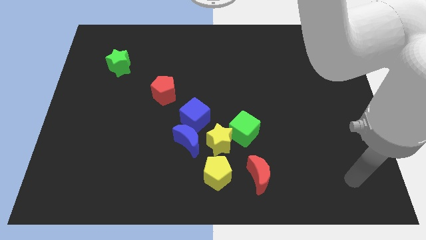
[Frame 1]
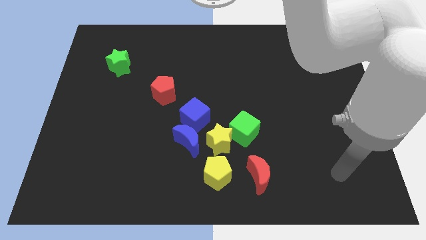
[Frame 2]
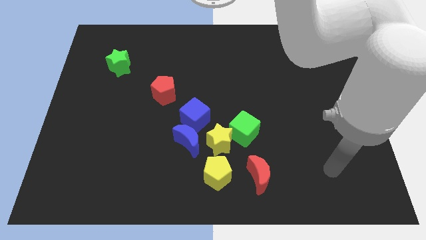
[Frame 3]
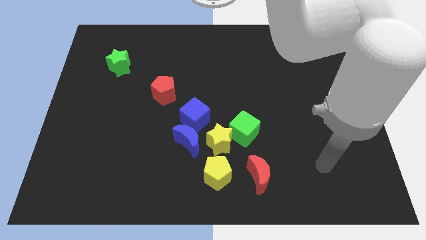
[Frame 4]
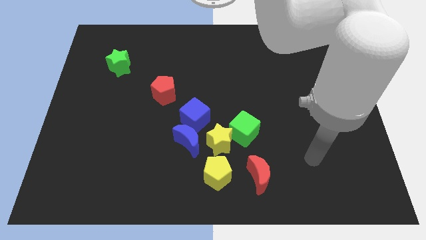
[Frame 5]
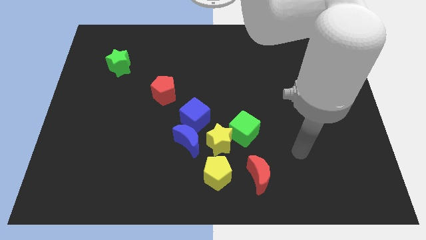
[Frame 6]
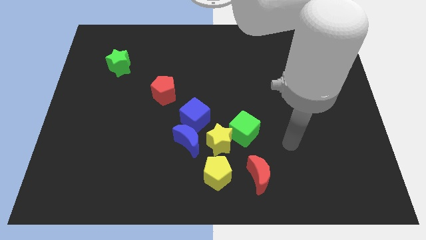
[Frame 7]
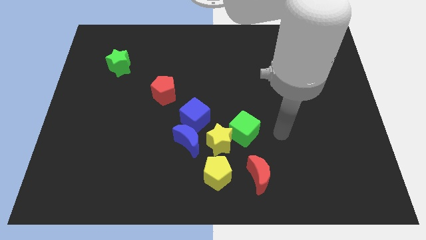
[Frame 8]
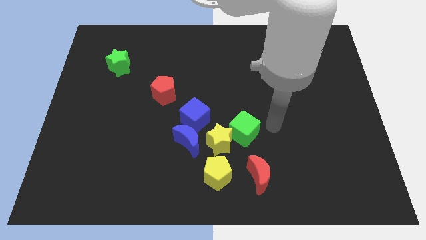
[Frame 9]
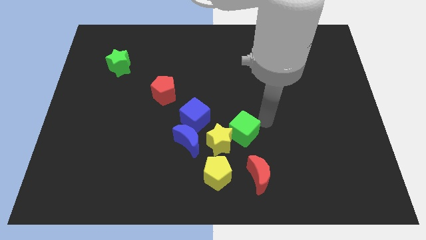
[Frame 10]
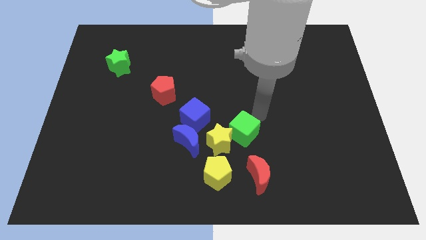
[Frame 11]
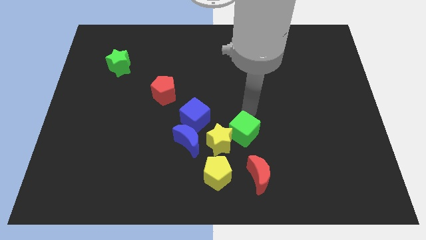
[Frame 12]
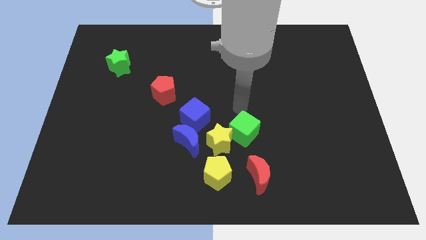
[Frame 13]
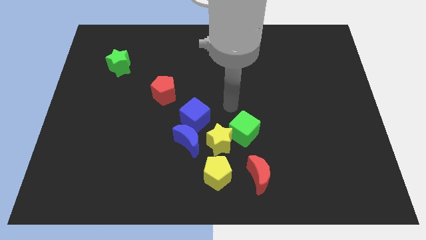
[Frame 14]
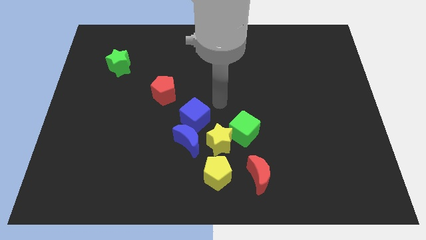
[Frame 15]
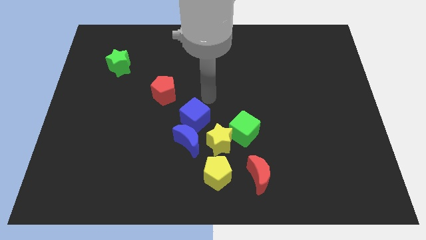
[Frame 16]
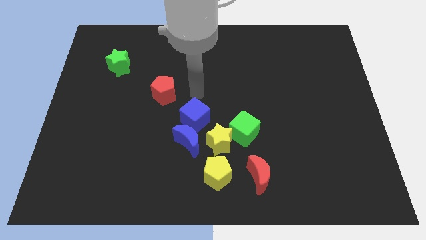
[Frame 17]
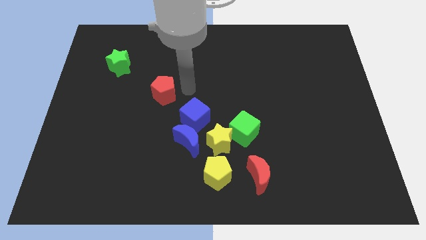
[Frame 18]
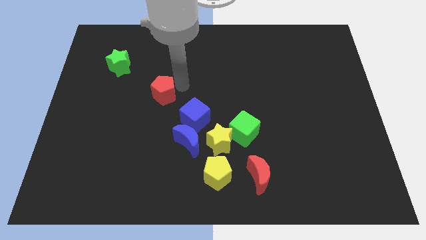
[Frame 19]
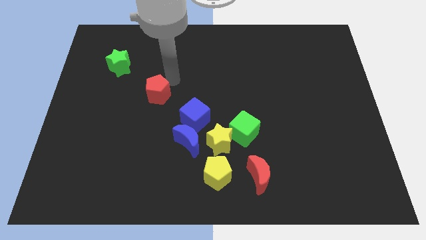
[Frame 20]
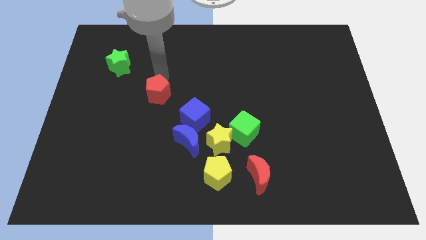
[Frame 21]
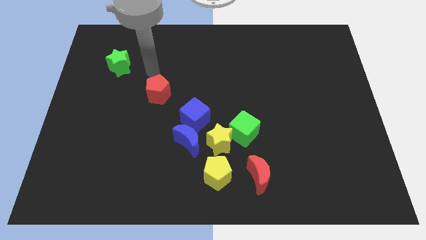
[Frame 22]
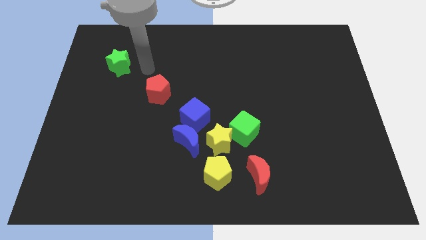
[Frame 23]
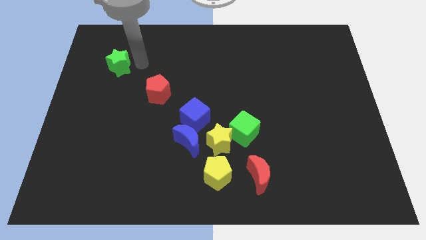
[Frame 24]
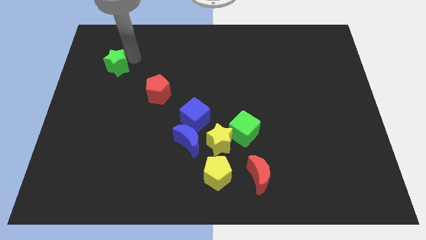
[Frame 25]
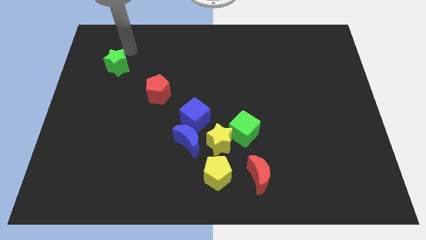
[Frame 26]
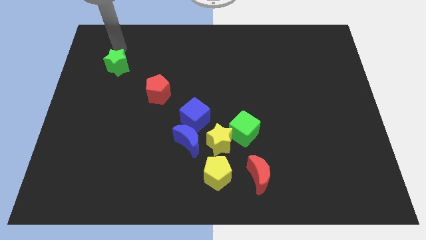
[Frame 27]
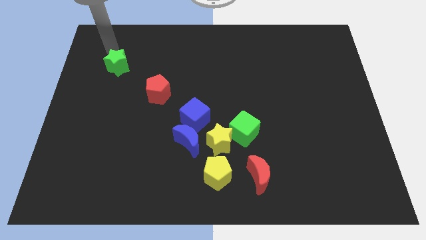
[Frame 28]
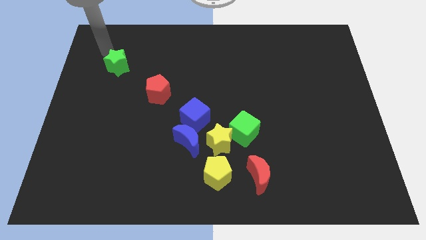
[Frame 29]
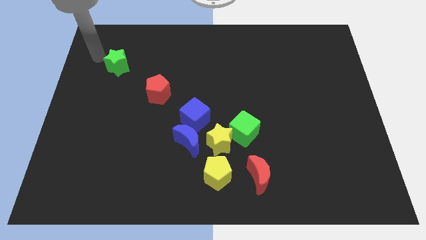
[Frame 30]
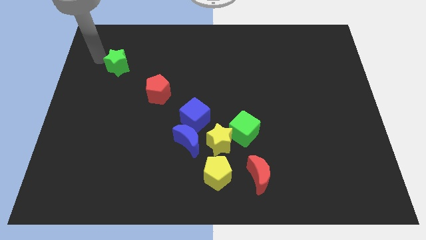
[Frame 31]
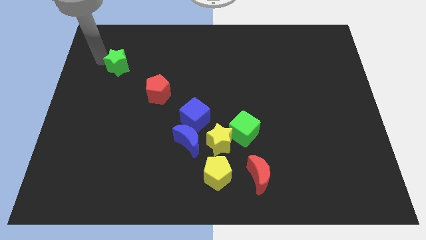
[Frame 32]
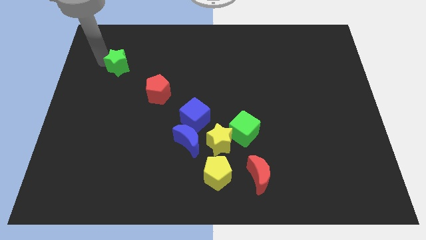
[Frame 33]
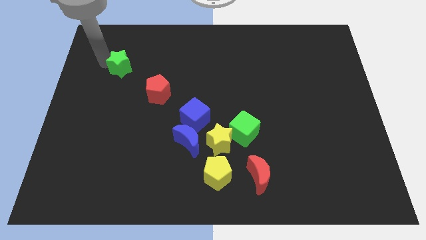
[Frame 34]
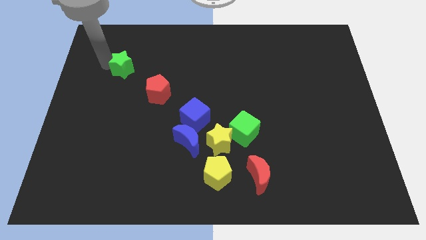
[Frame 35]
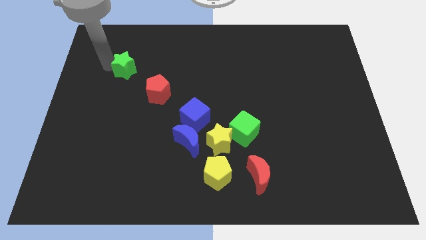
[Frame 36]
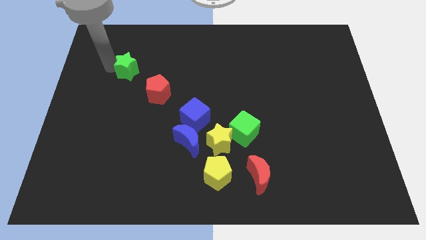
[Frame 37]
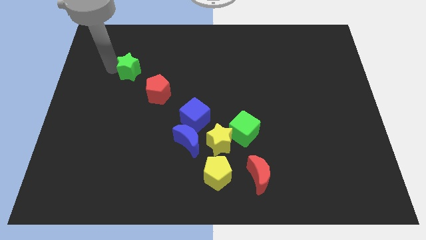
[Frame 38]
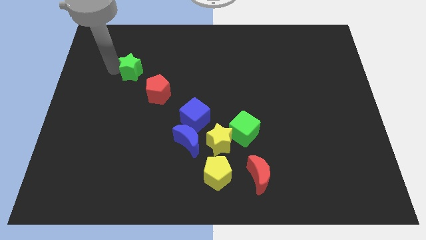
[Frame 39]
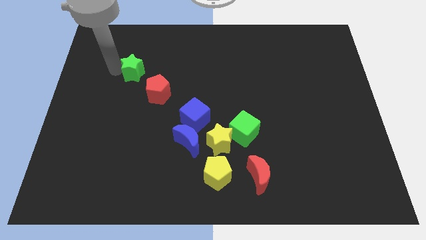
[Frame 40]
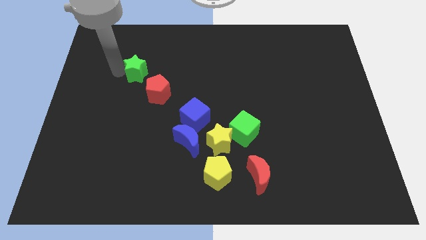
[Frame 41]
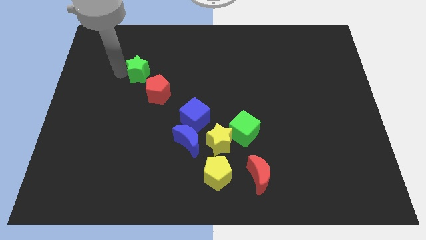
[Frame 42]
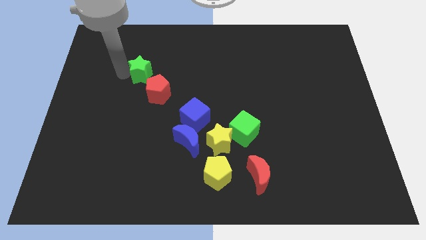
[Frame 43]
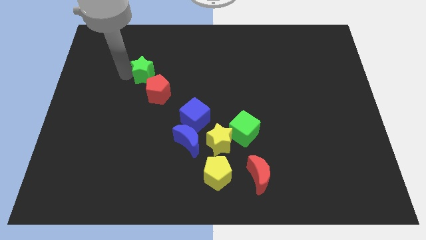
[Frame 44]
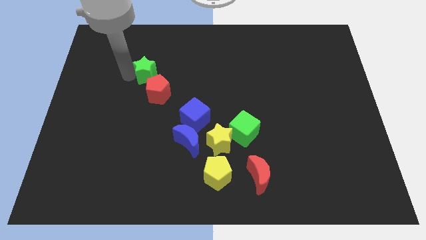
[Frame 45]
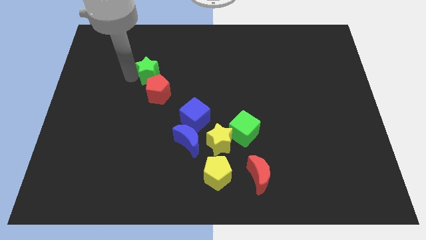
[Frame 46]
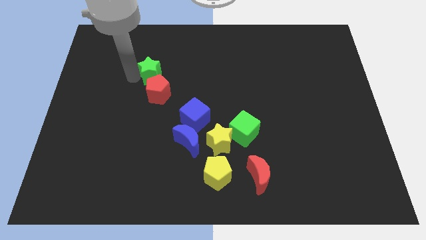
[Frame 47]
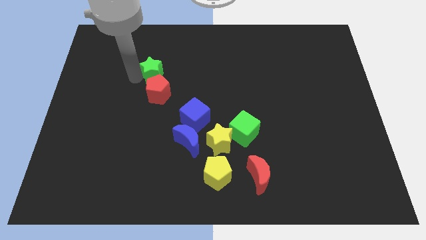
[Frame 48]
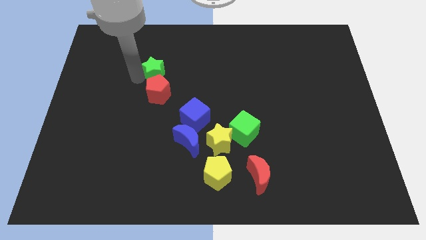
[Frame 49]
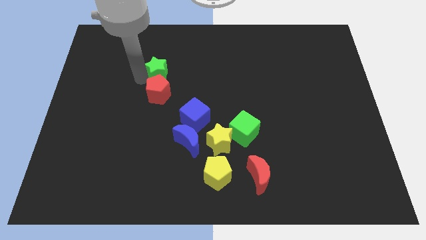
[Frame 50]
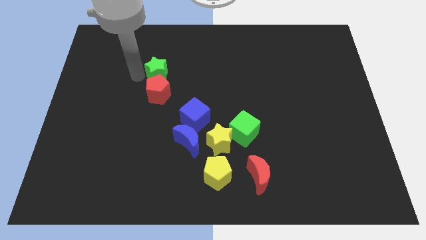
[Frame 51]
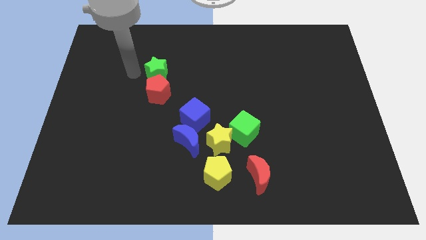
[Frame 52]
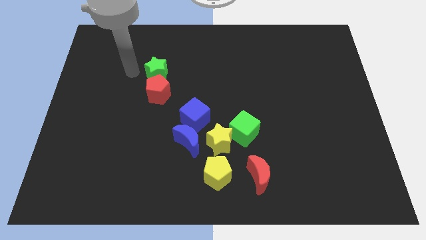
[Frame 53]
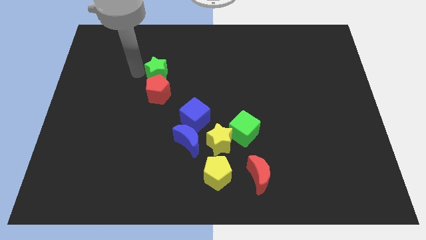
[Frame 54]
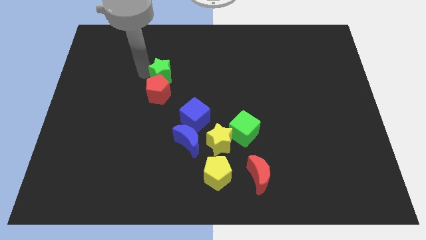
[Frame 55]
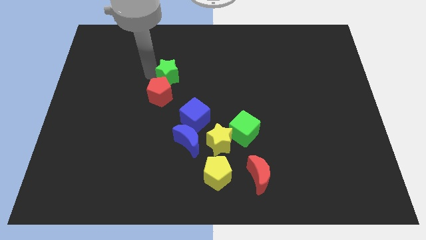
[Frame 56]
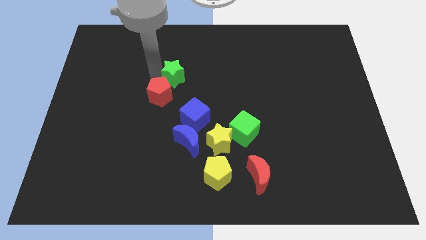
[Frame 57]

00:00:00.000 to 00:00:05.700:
move the green star to the middle

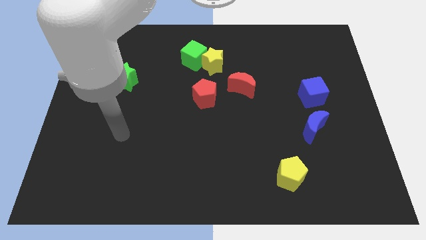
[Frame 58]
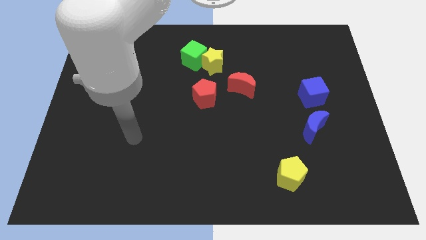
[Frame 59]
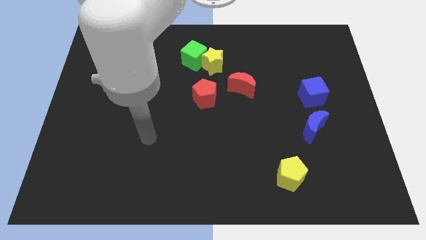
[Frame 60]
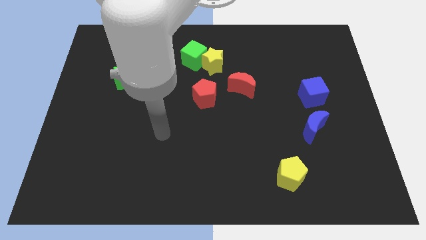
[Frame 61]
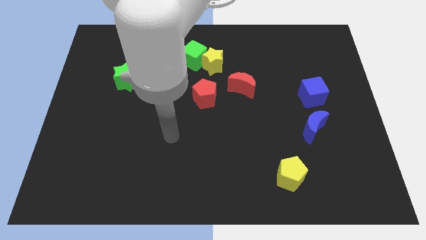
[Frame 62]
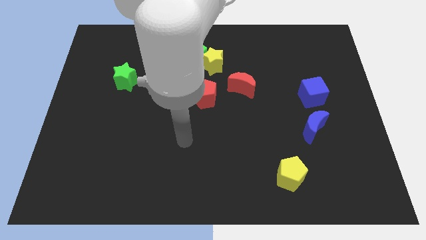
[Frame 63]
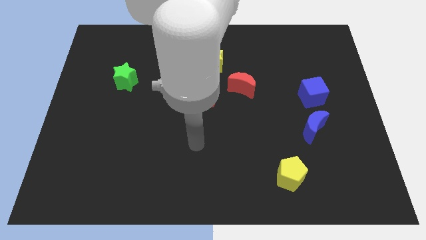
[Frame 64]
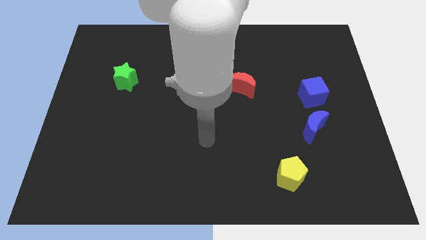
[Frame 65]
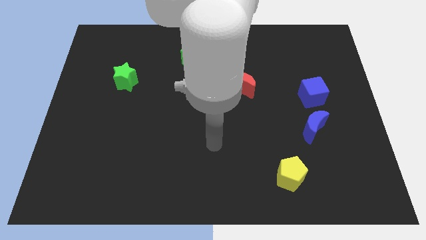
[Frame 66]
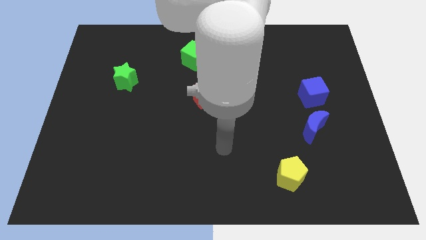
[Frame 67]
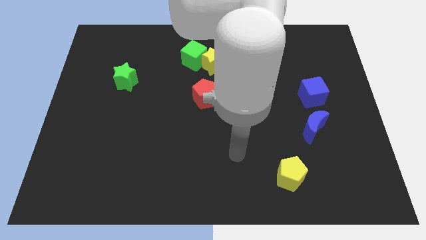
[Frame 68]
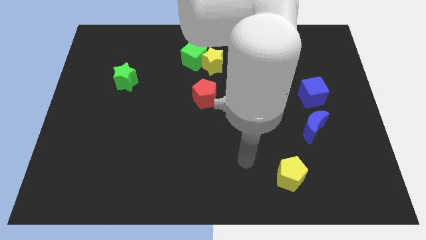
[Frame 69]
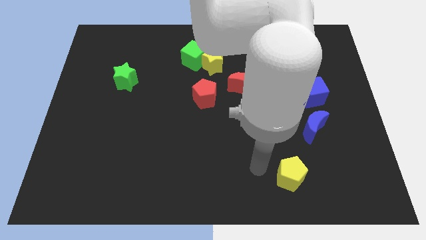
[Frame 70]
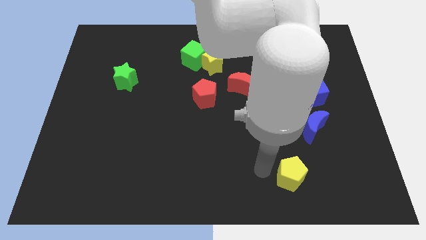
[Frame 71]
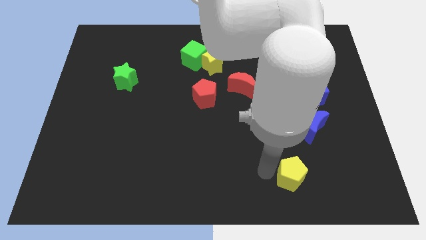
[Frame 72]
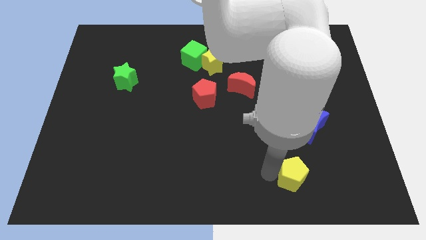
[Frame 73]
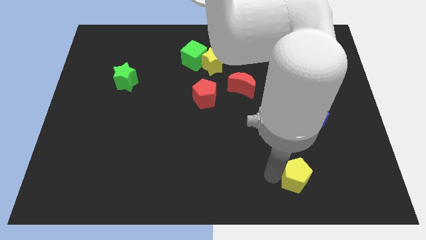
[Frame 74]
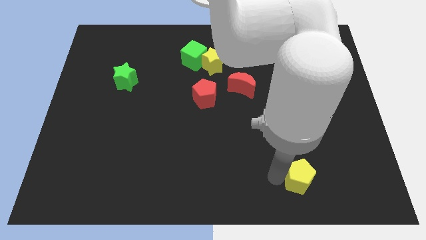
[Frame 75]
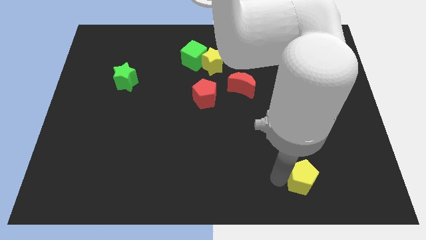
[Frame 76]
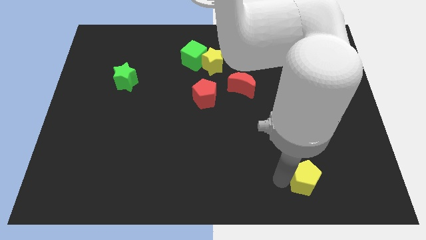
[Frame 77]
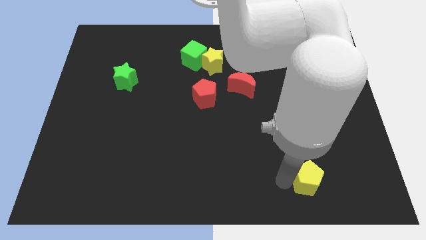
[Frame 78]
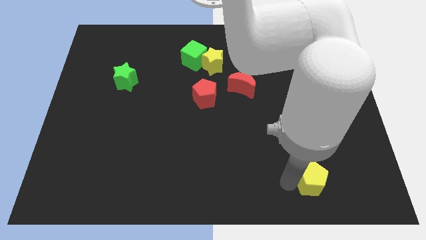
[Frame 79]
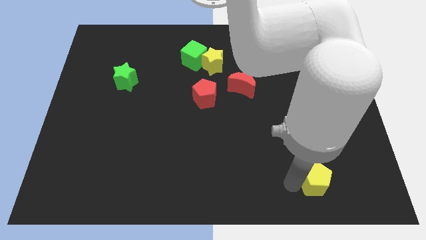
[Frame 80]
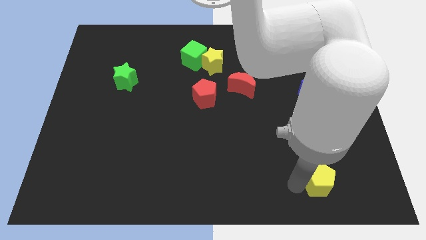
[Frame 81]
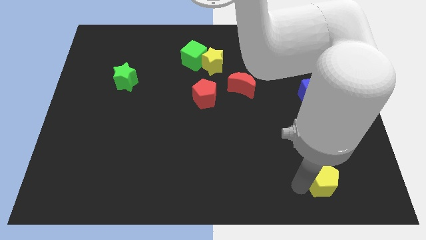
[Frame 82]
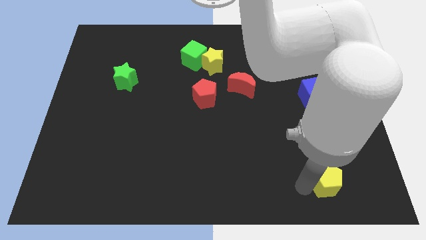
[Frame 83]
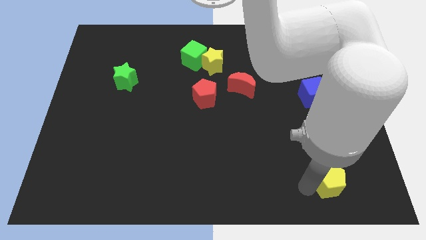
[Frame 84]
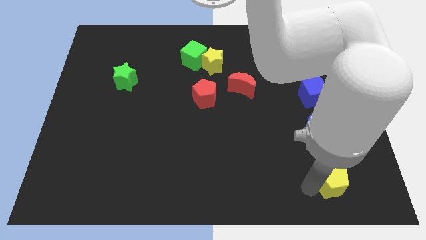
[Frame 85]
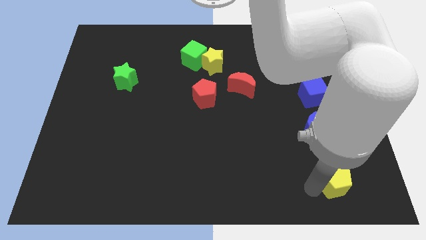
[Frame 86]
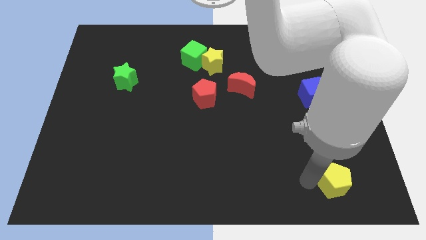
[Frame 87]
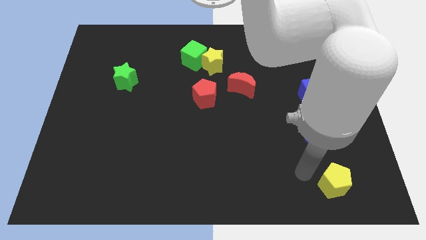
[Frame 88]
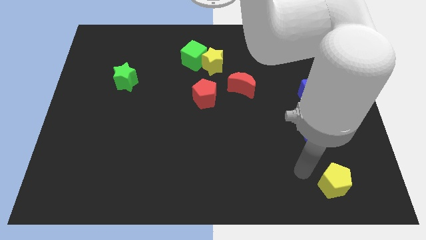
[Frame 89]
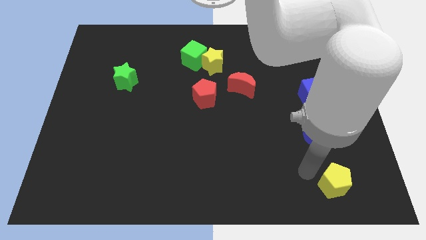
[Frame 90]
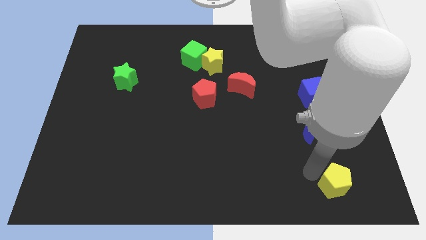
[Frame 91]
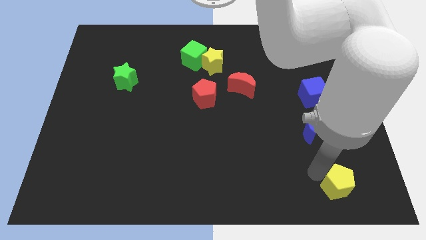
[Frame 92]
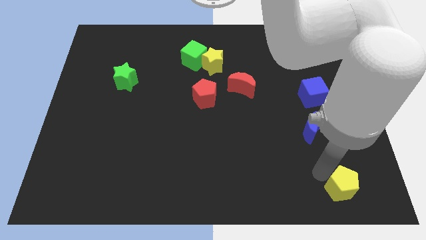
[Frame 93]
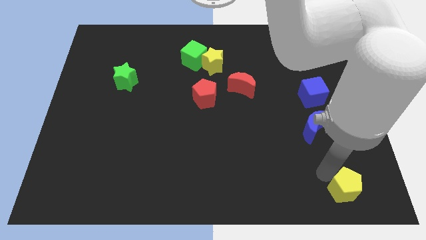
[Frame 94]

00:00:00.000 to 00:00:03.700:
push the yellow pentagon to the lower right corner
